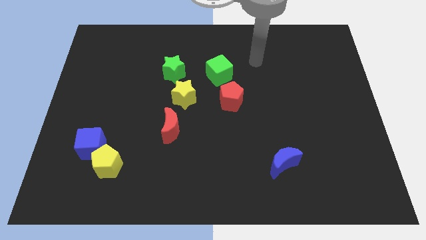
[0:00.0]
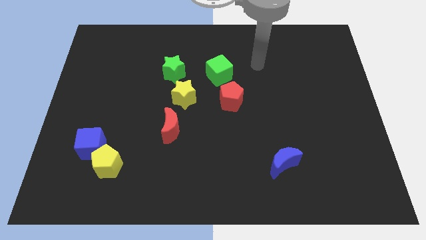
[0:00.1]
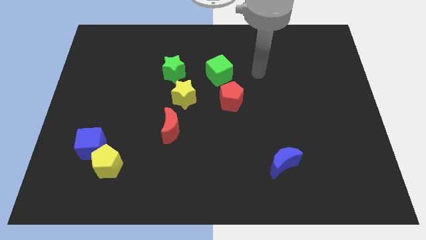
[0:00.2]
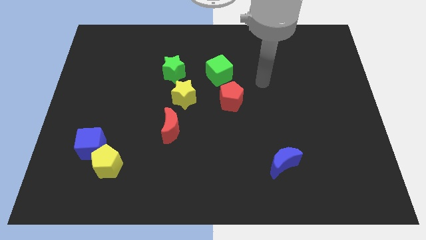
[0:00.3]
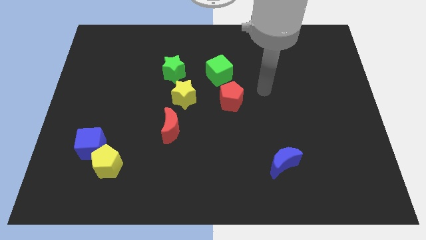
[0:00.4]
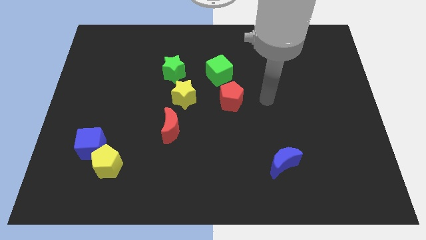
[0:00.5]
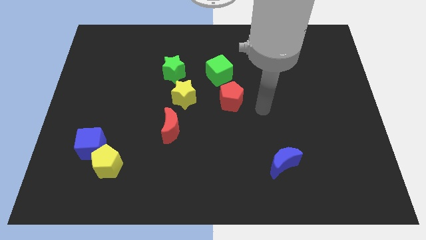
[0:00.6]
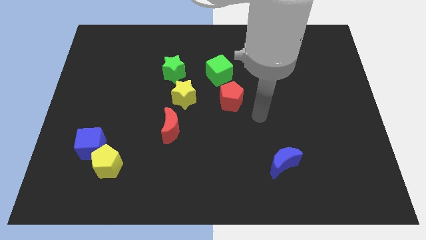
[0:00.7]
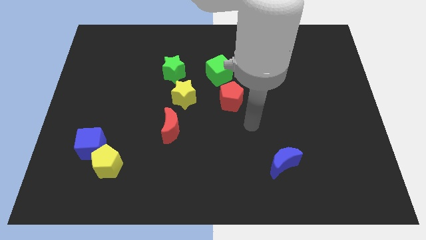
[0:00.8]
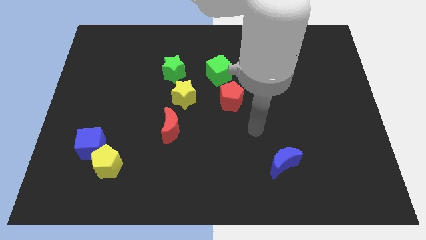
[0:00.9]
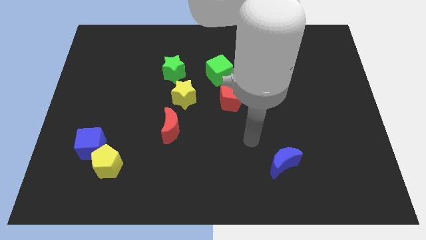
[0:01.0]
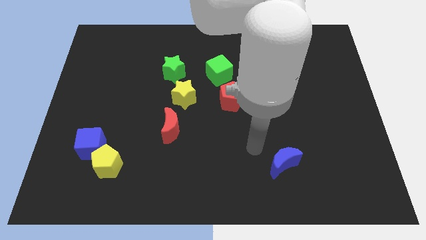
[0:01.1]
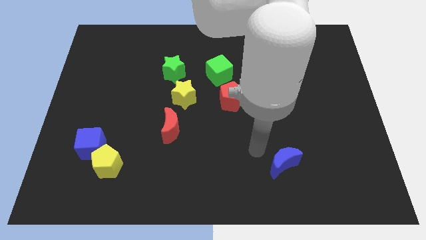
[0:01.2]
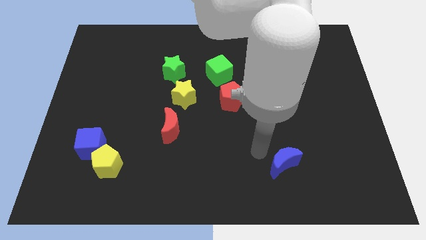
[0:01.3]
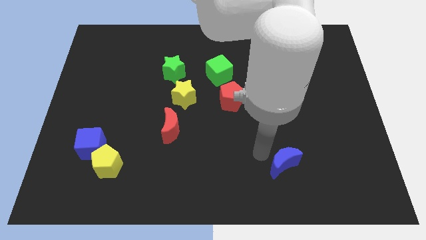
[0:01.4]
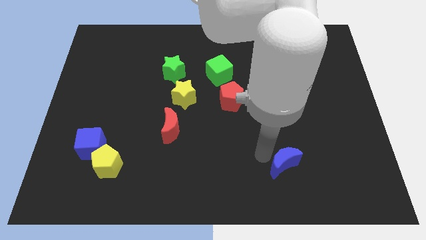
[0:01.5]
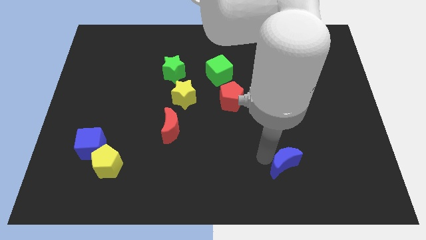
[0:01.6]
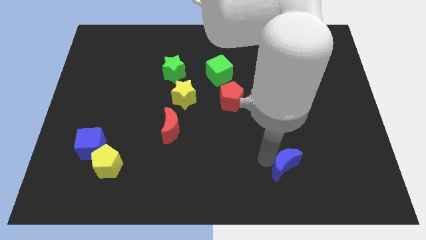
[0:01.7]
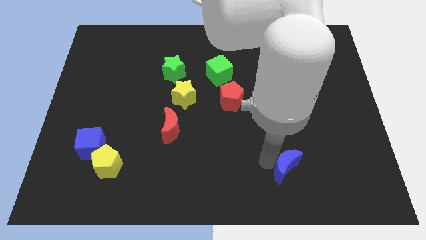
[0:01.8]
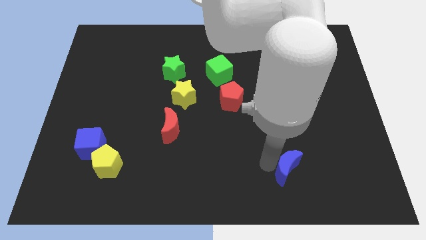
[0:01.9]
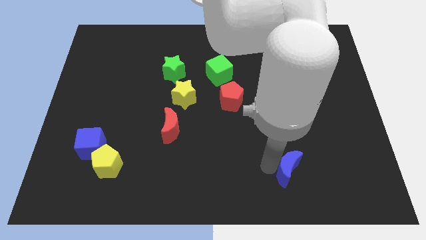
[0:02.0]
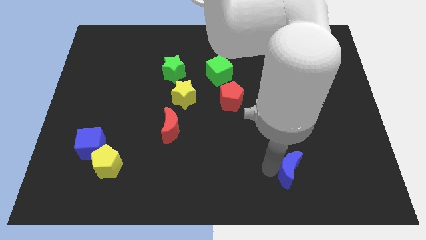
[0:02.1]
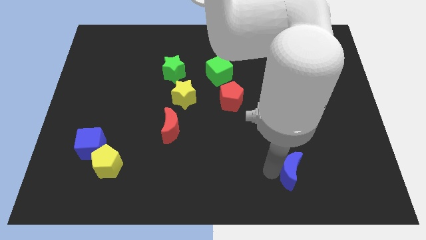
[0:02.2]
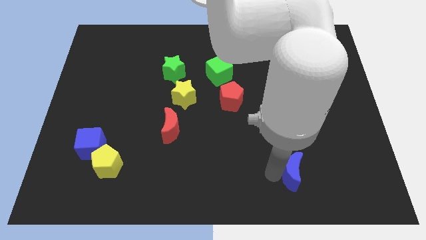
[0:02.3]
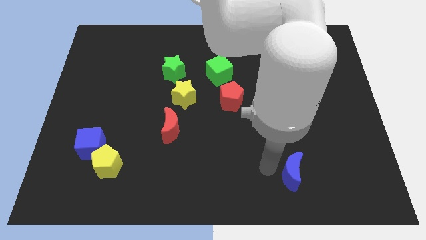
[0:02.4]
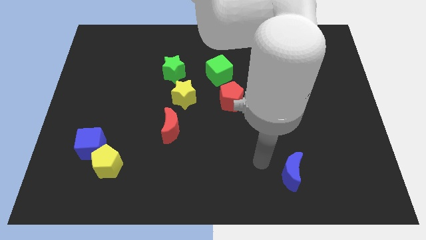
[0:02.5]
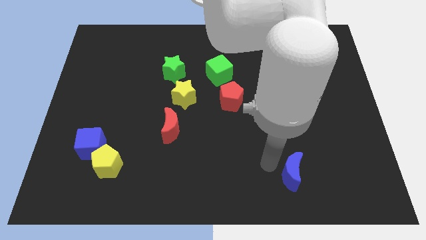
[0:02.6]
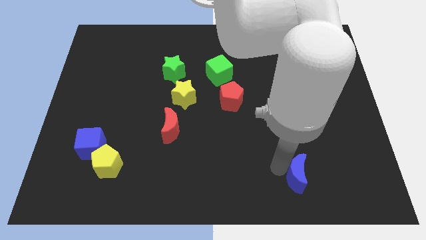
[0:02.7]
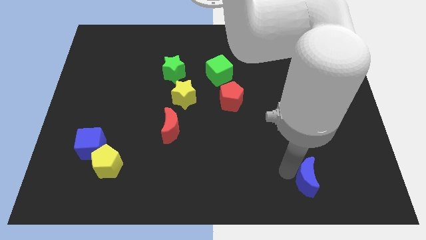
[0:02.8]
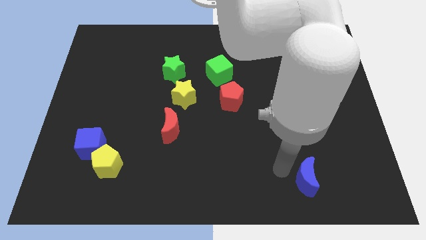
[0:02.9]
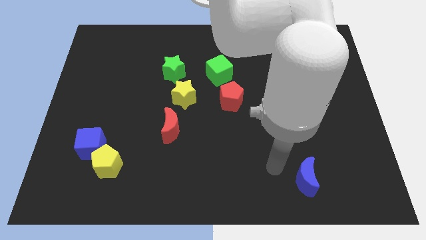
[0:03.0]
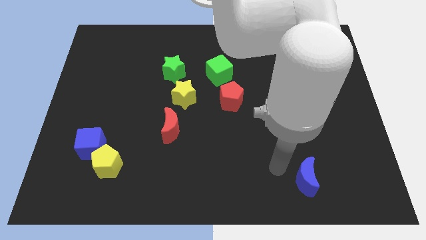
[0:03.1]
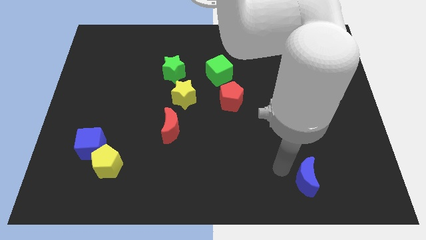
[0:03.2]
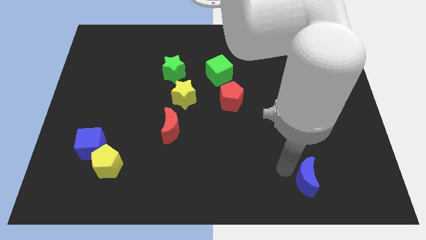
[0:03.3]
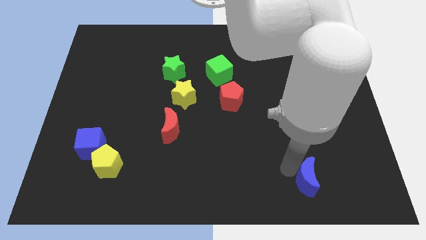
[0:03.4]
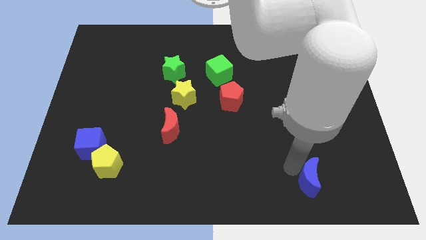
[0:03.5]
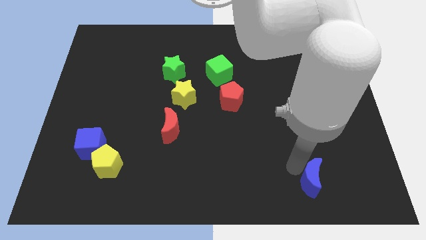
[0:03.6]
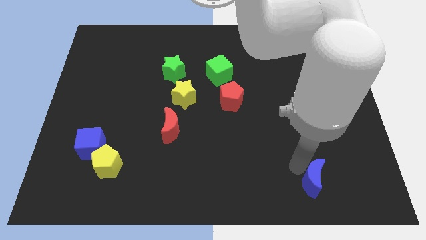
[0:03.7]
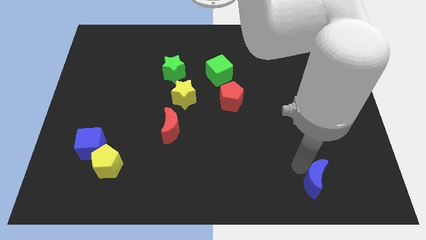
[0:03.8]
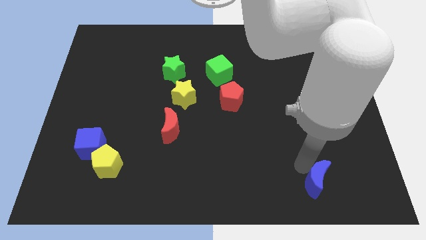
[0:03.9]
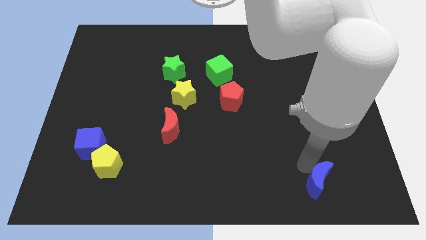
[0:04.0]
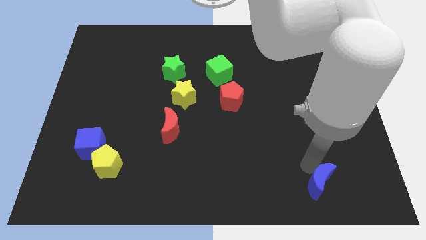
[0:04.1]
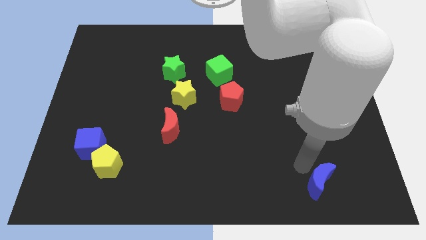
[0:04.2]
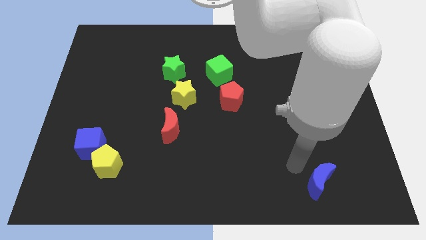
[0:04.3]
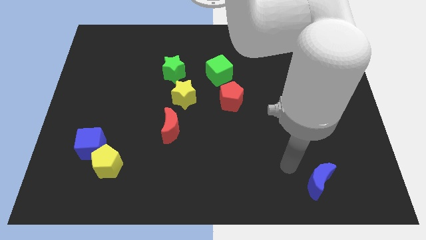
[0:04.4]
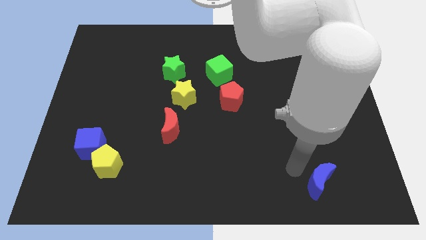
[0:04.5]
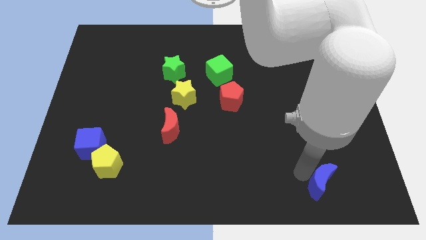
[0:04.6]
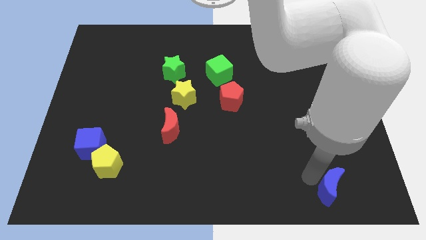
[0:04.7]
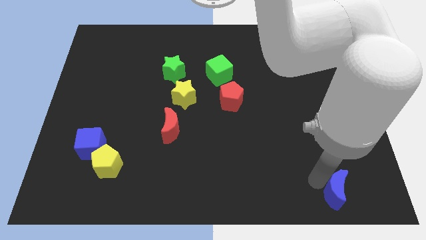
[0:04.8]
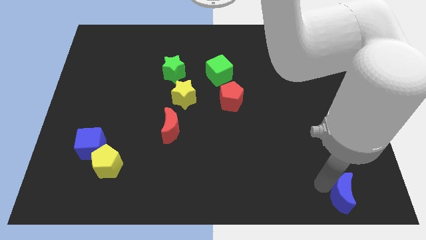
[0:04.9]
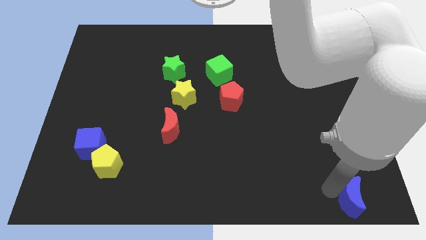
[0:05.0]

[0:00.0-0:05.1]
put the blue moon to the bottom right

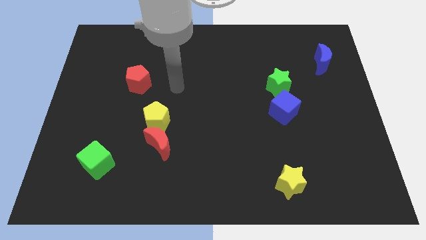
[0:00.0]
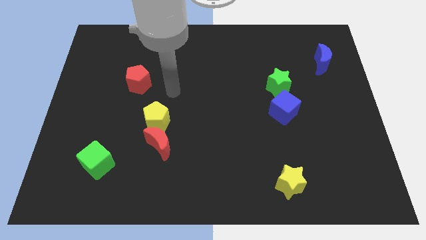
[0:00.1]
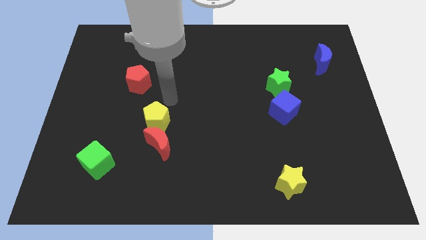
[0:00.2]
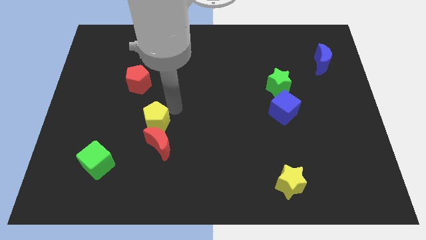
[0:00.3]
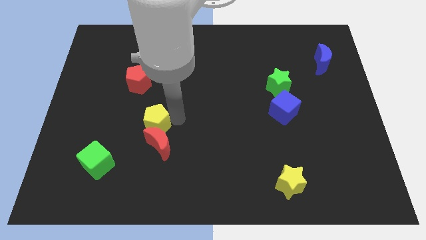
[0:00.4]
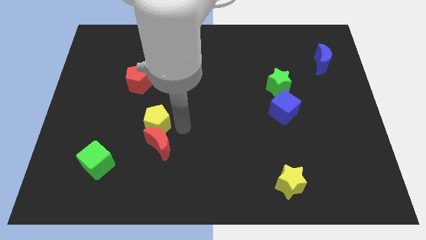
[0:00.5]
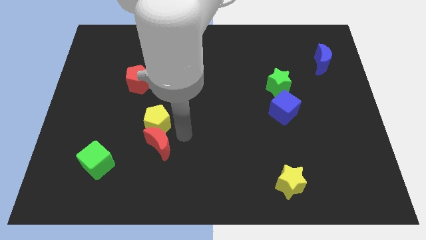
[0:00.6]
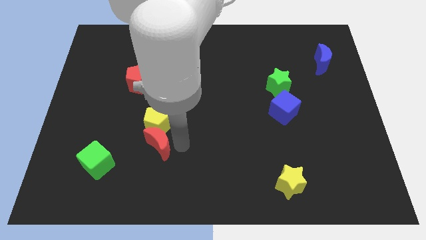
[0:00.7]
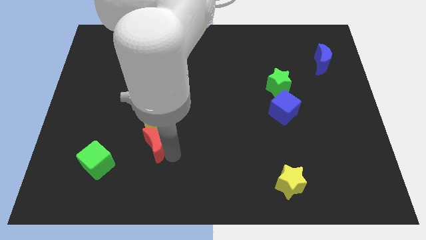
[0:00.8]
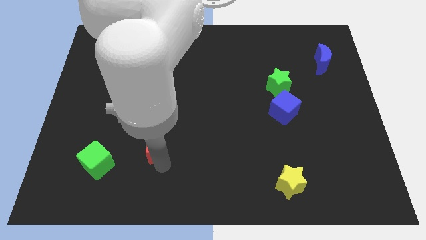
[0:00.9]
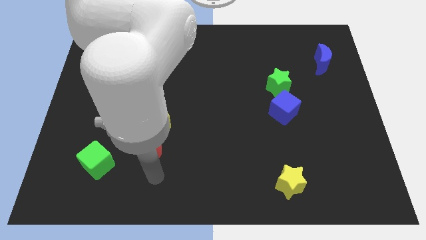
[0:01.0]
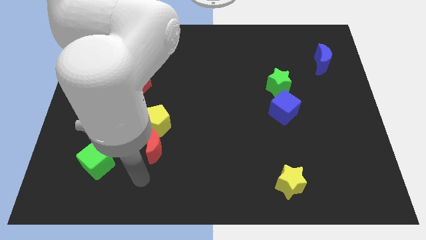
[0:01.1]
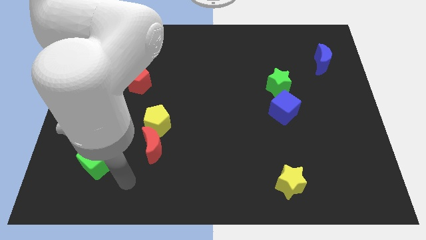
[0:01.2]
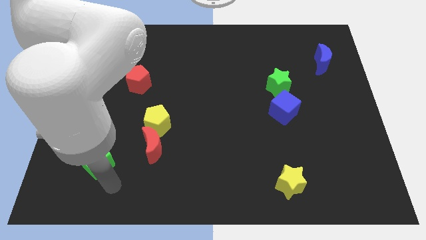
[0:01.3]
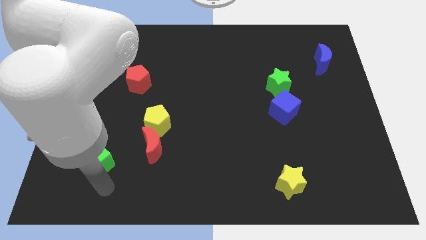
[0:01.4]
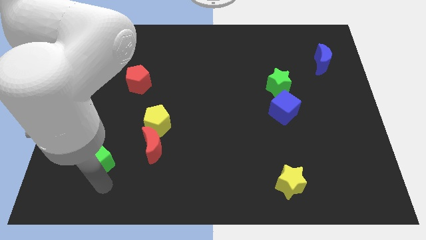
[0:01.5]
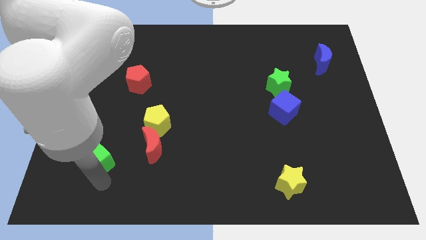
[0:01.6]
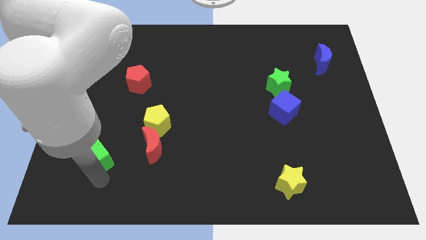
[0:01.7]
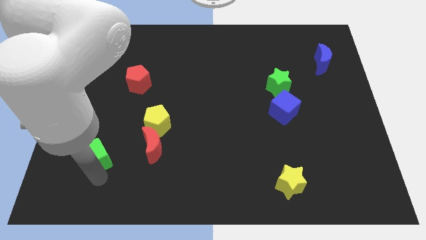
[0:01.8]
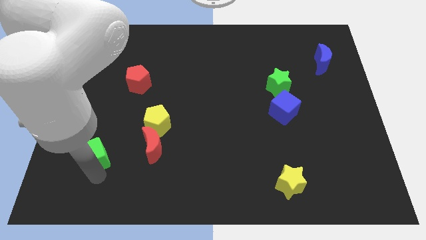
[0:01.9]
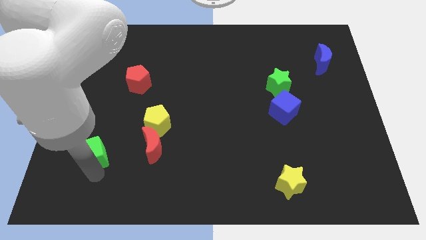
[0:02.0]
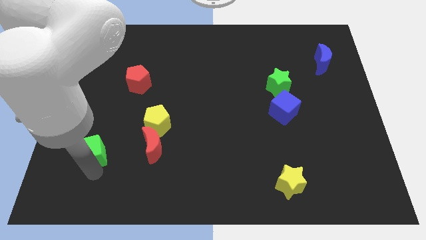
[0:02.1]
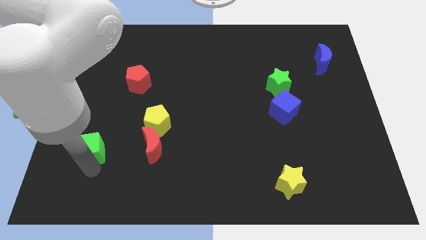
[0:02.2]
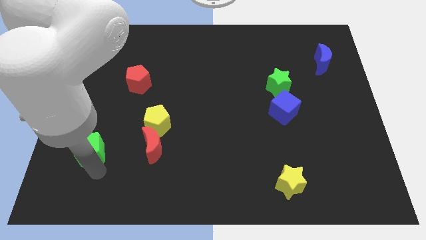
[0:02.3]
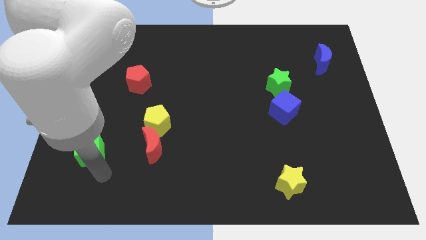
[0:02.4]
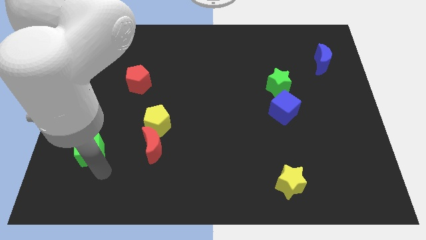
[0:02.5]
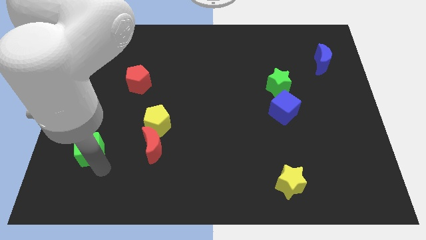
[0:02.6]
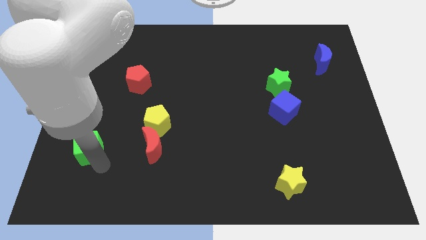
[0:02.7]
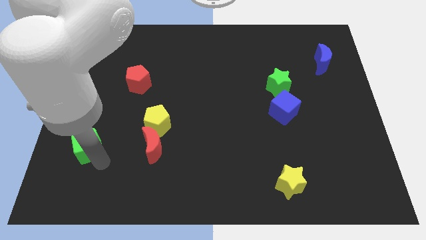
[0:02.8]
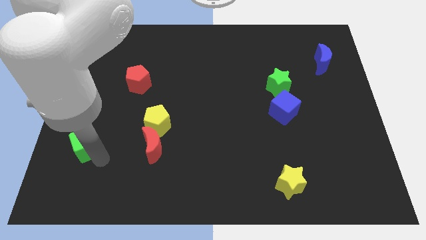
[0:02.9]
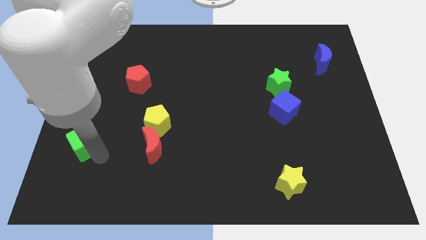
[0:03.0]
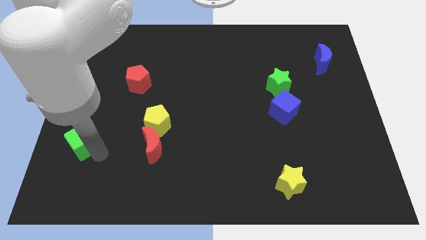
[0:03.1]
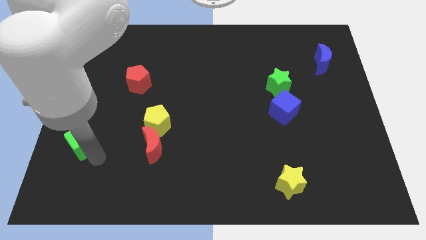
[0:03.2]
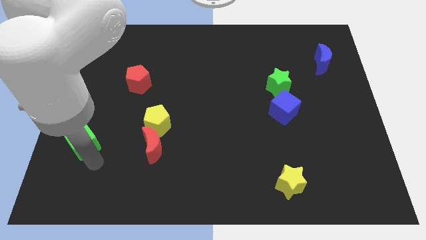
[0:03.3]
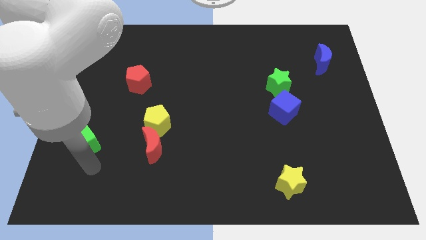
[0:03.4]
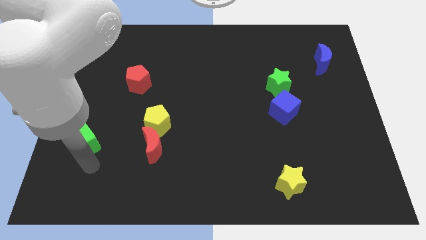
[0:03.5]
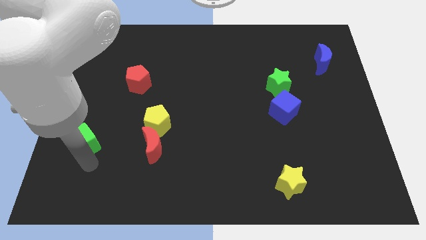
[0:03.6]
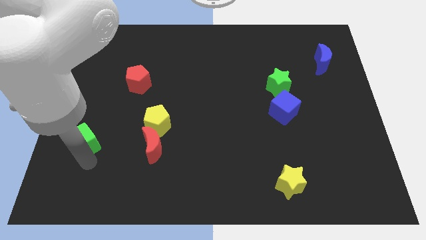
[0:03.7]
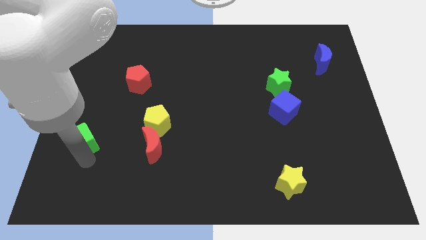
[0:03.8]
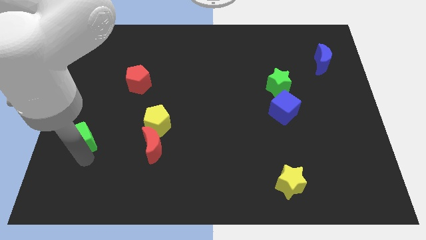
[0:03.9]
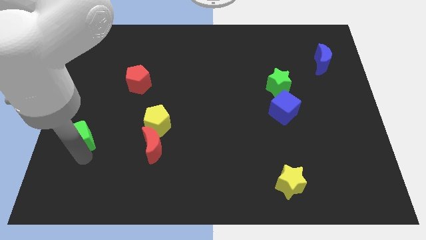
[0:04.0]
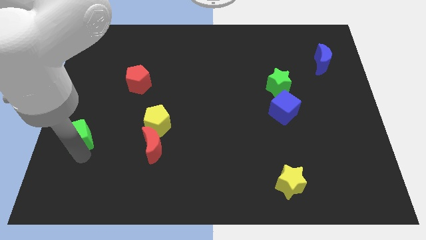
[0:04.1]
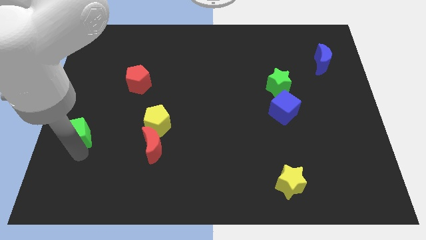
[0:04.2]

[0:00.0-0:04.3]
push the green cube to the left side
